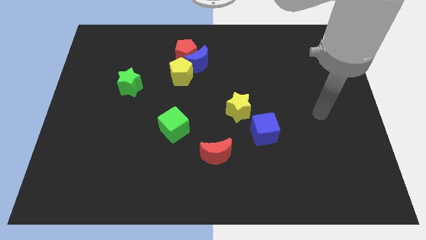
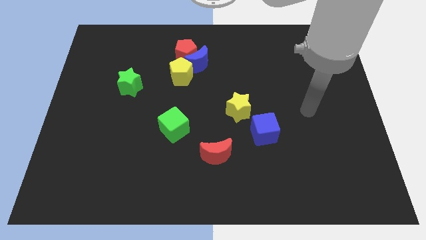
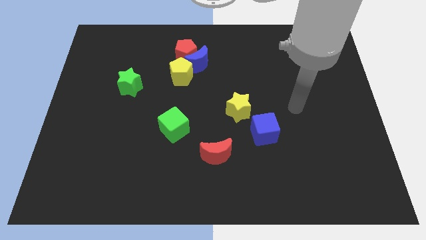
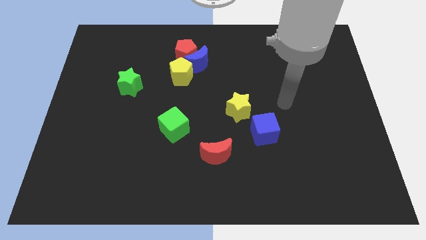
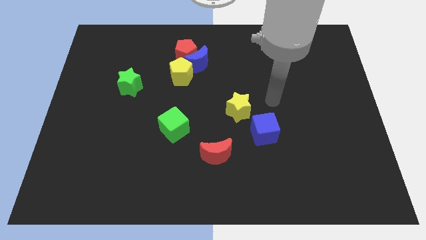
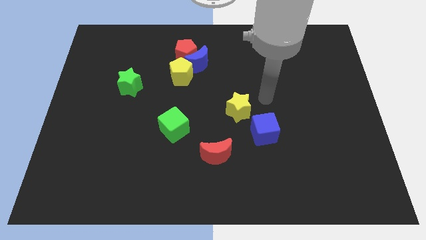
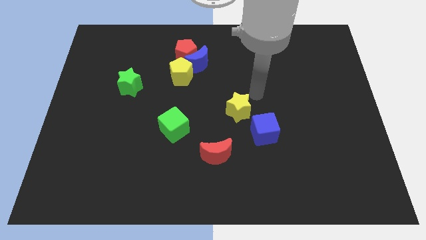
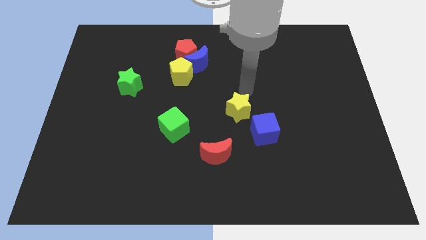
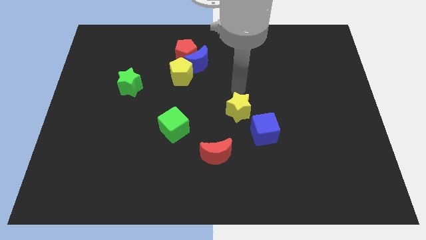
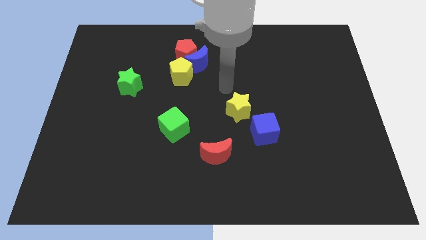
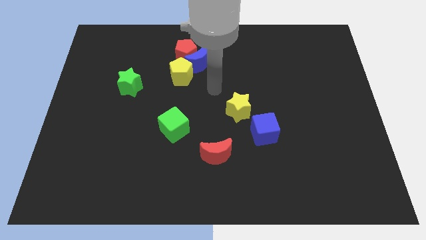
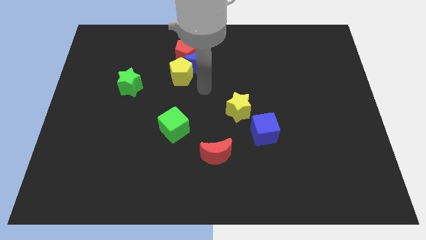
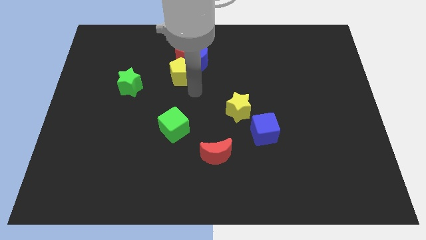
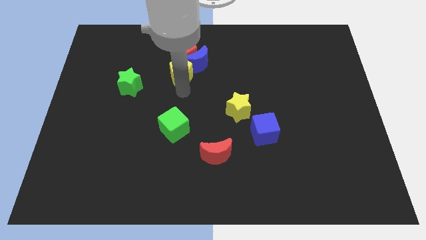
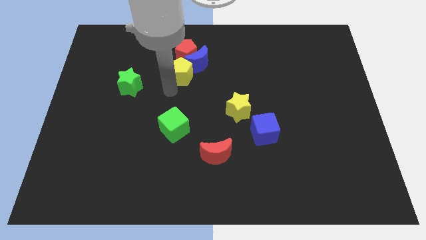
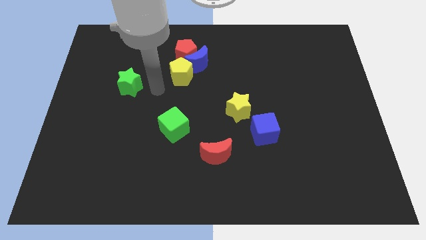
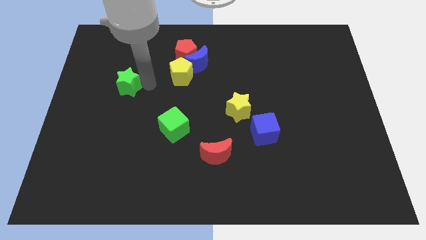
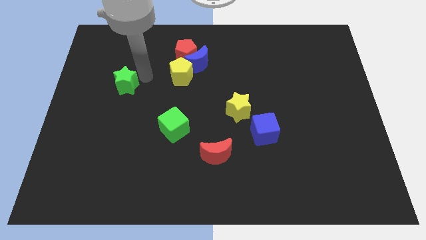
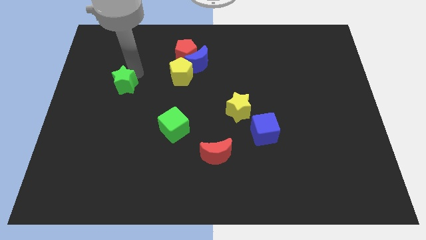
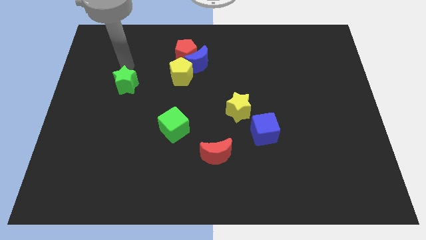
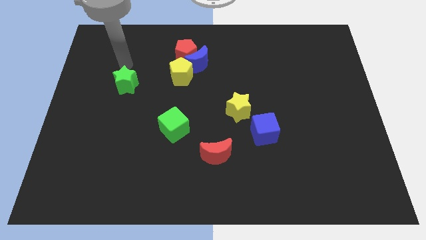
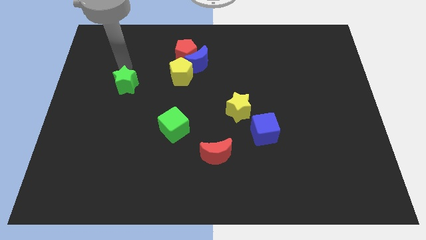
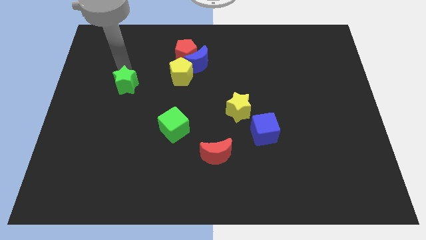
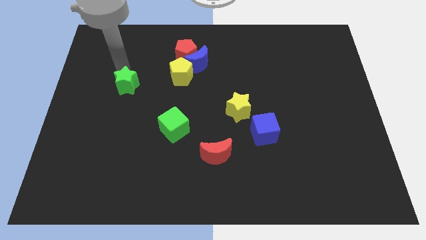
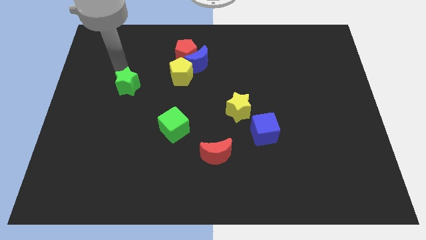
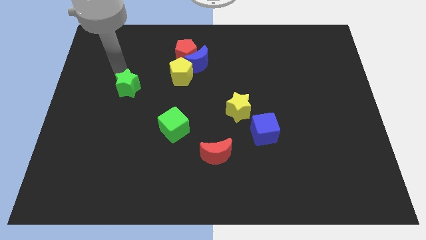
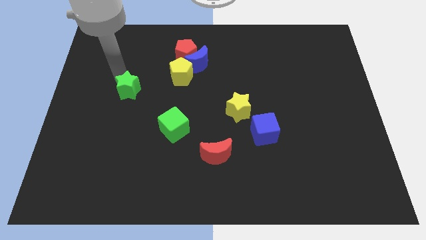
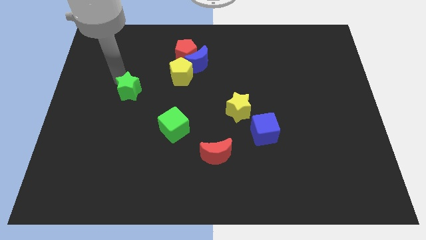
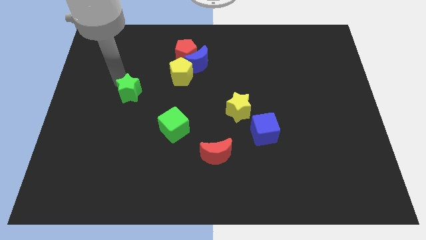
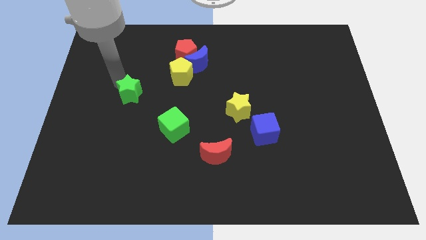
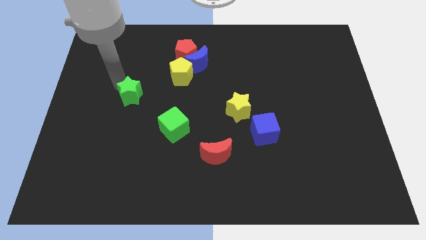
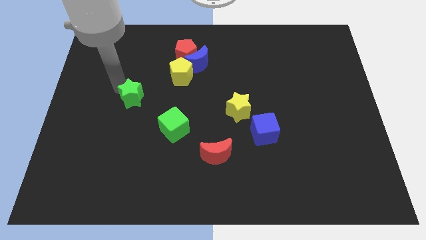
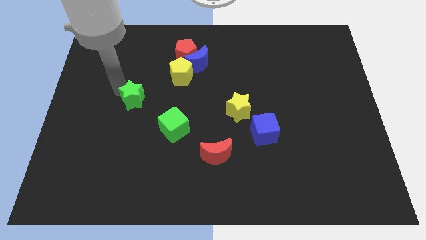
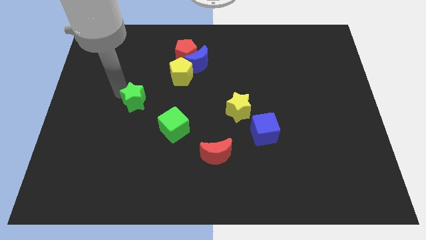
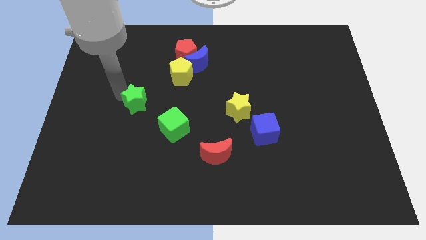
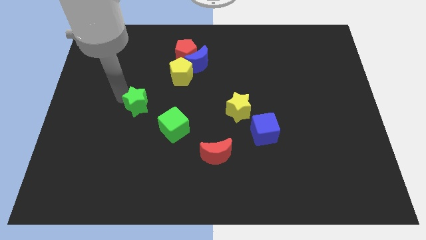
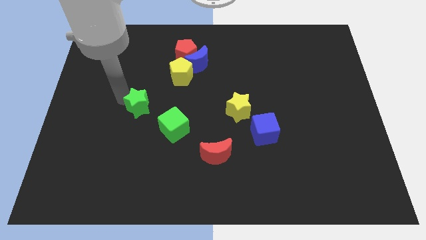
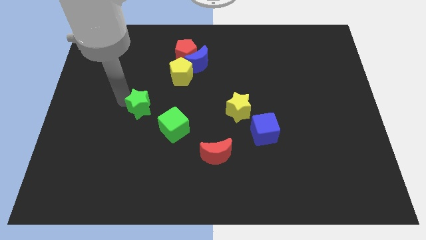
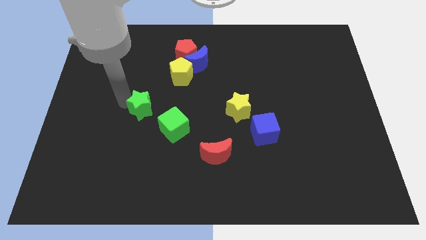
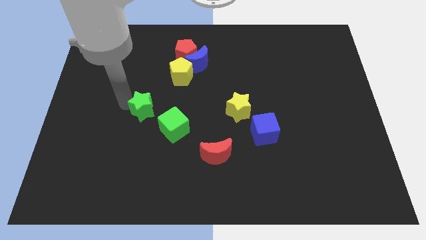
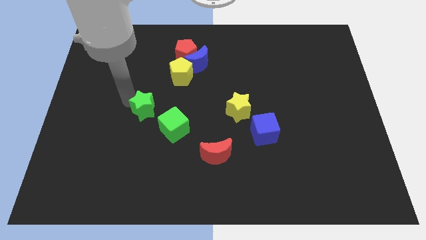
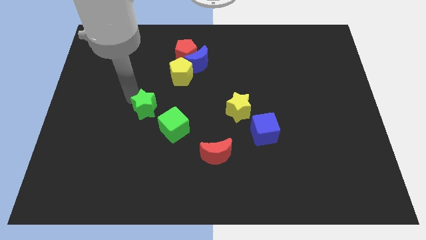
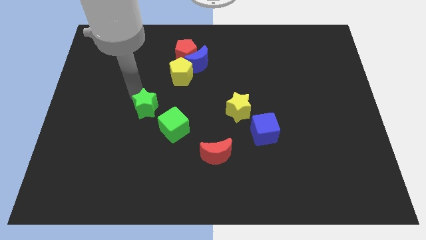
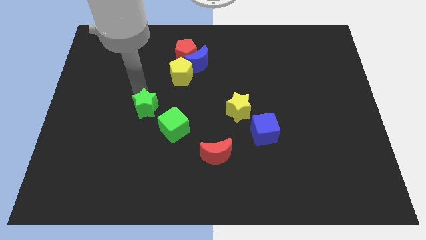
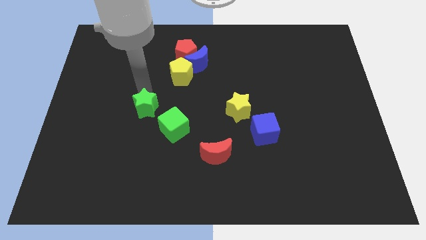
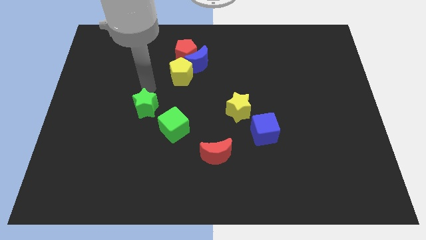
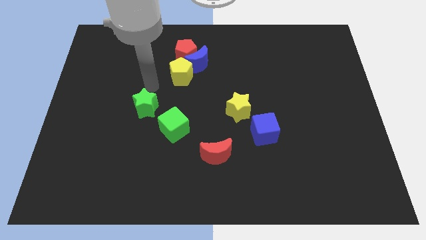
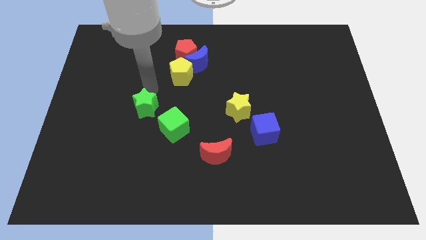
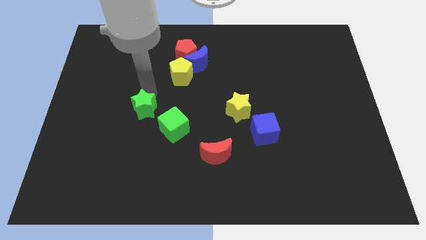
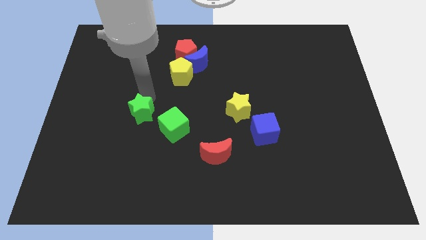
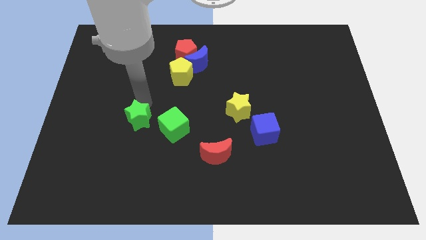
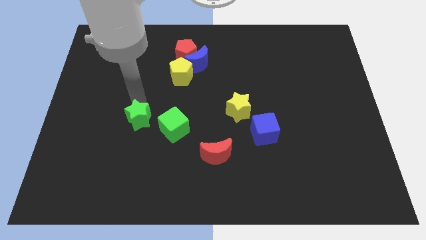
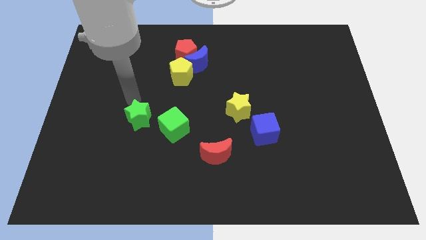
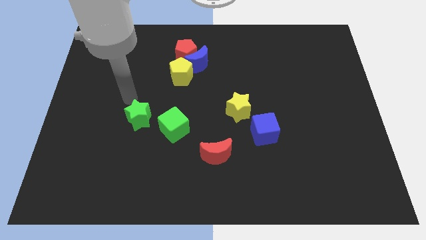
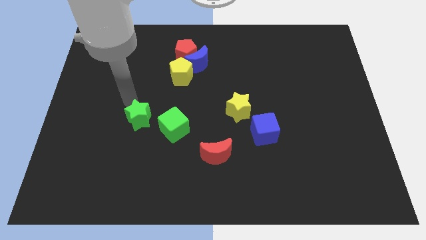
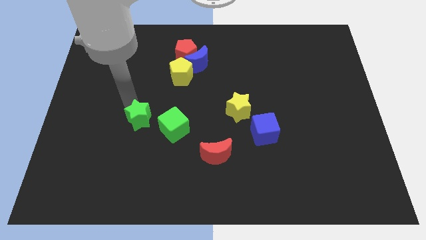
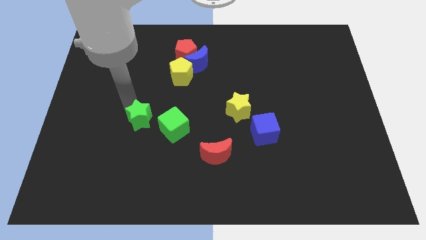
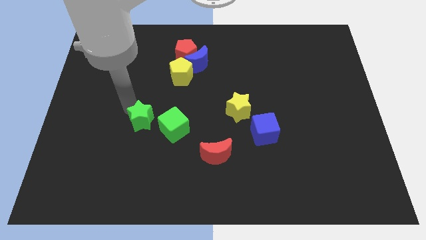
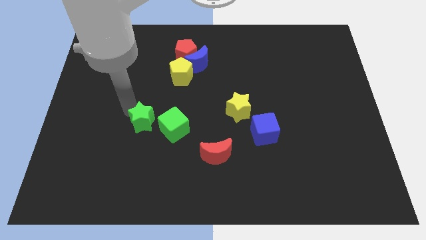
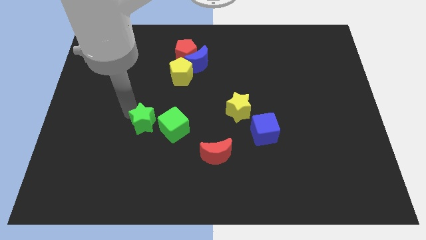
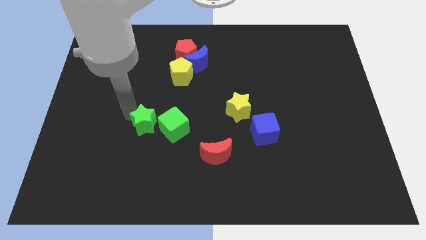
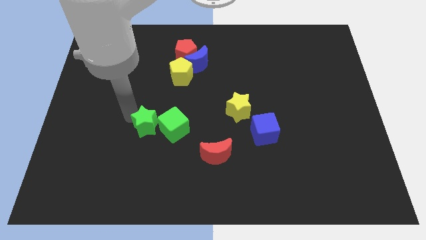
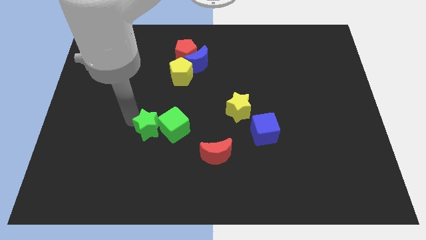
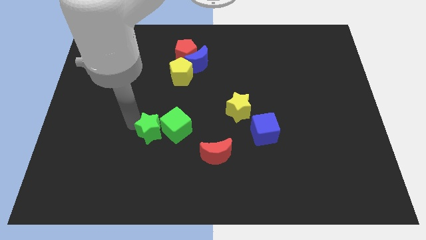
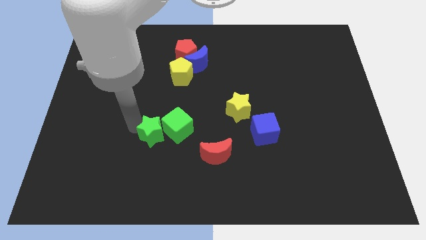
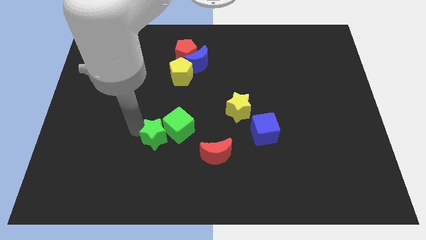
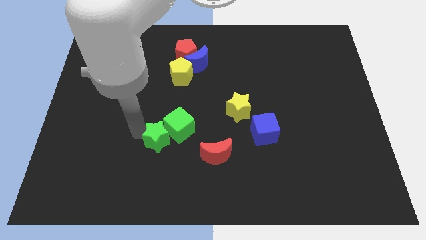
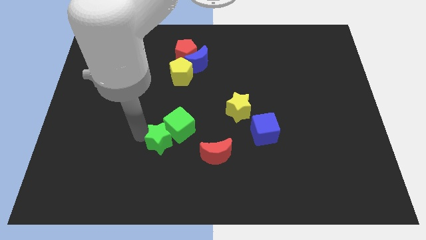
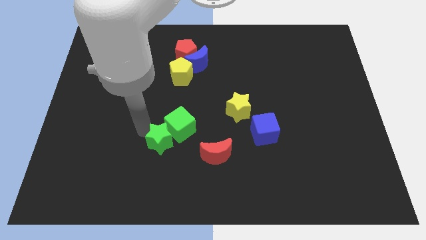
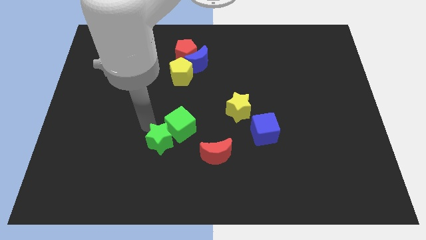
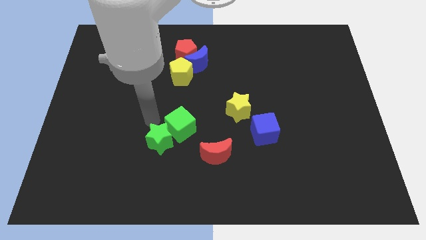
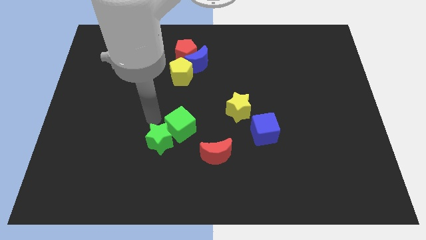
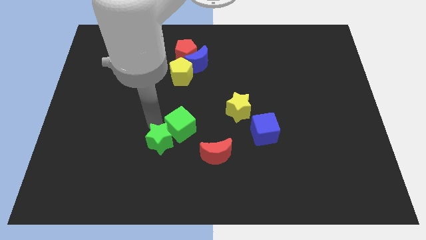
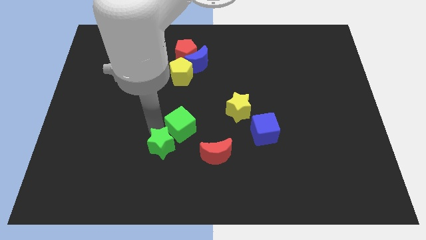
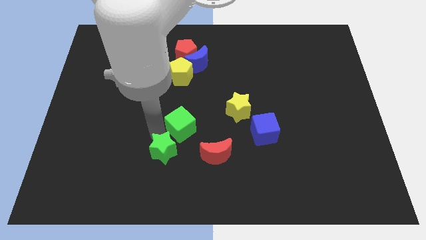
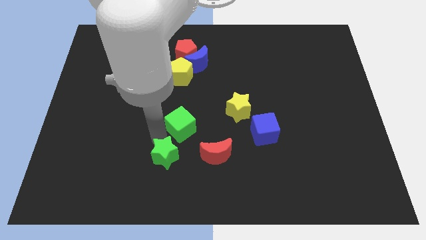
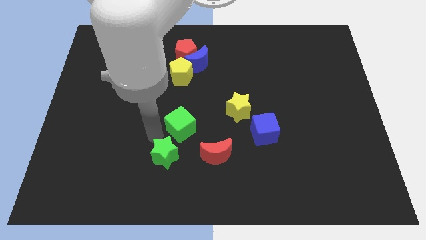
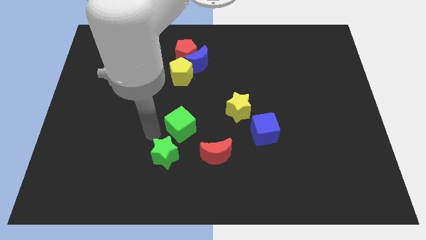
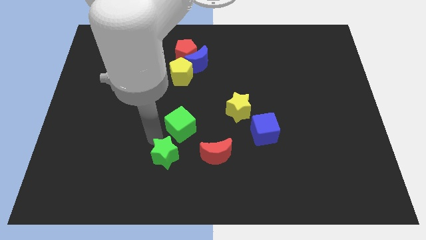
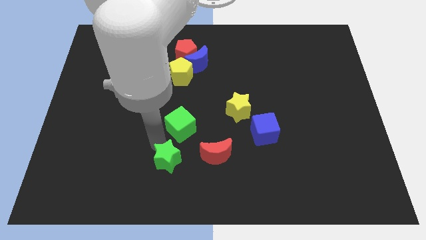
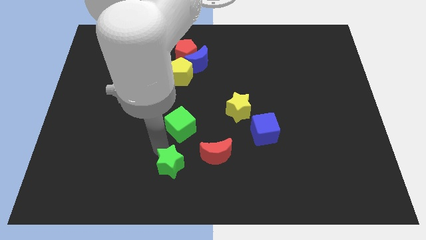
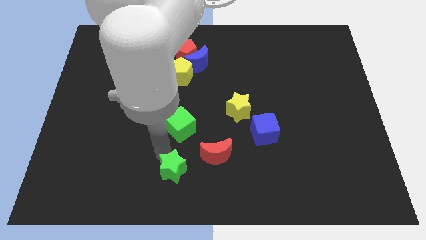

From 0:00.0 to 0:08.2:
move the green star to the bottom
